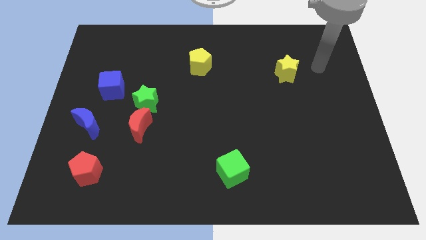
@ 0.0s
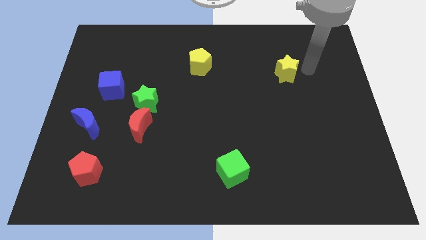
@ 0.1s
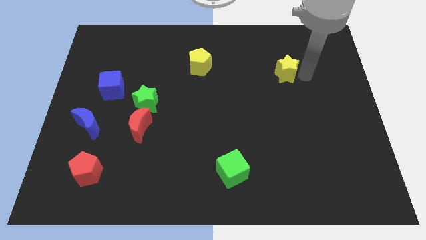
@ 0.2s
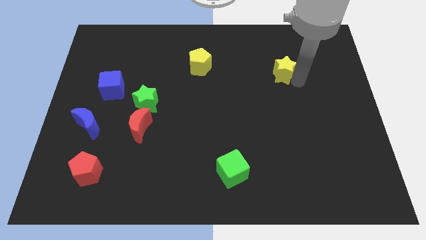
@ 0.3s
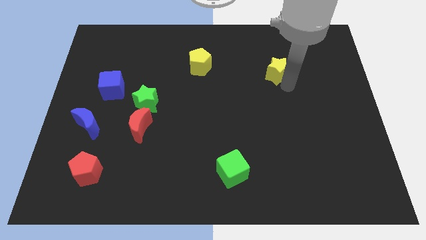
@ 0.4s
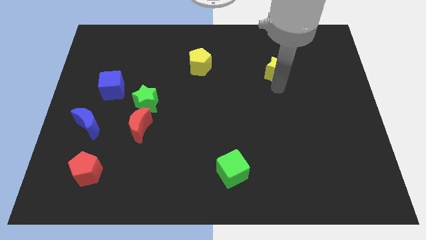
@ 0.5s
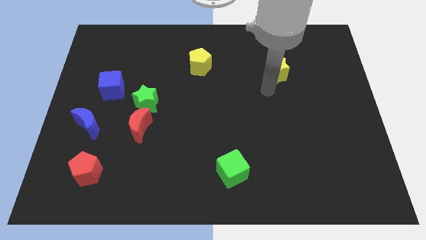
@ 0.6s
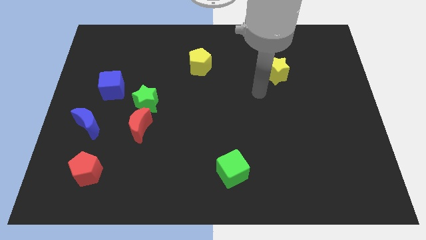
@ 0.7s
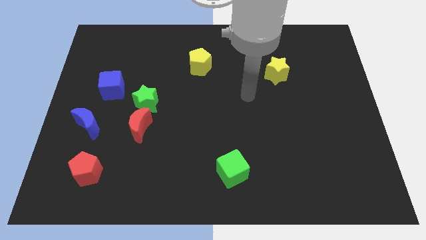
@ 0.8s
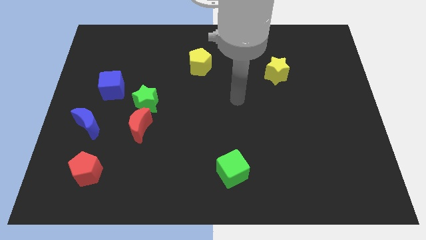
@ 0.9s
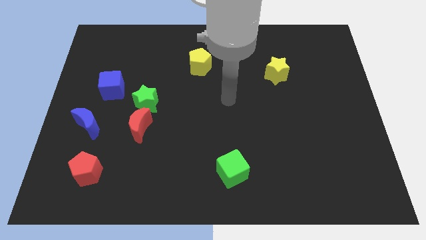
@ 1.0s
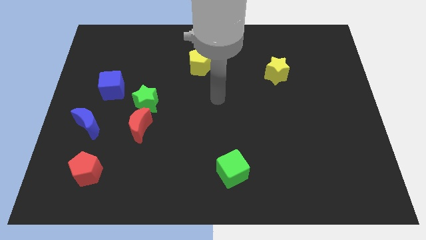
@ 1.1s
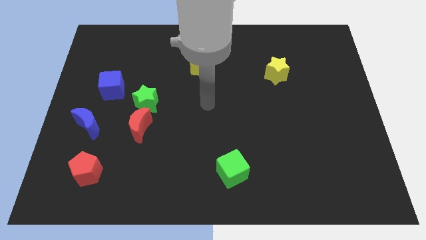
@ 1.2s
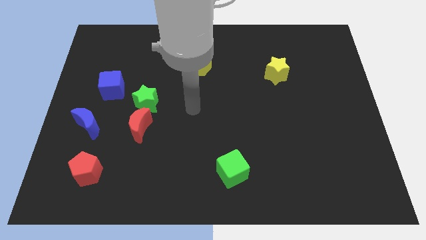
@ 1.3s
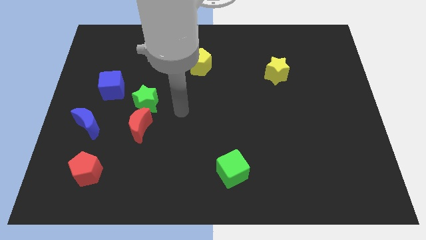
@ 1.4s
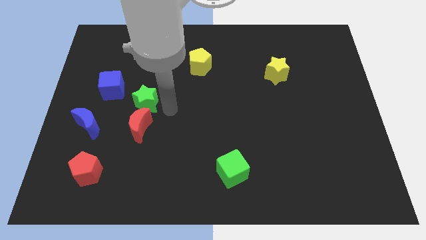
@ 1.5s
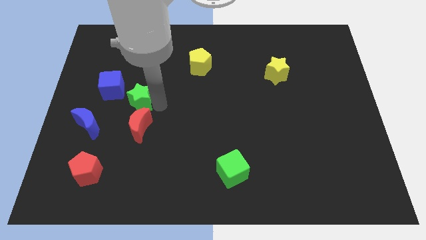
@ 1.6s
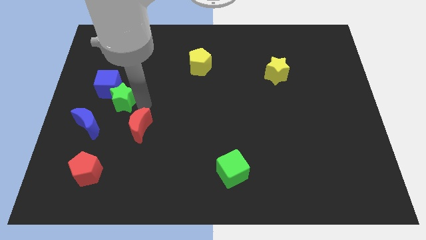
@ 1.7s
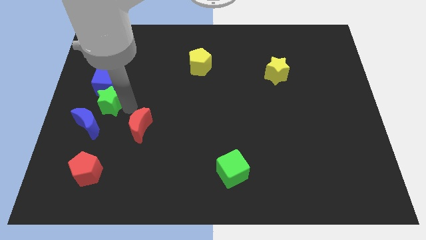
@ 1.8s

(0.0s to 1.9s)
move the red moon away from the green star

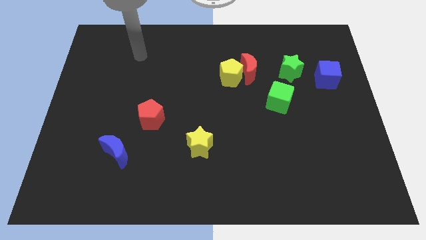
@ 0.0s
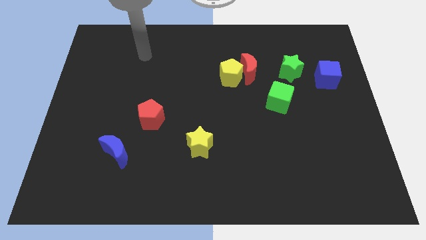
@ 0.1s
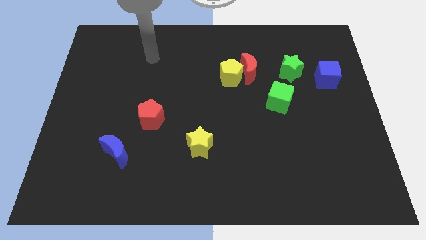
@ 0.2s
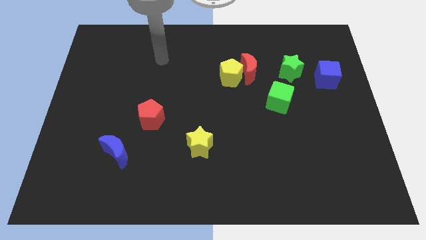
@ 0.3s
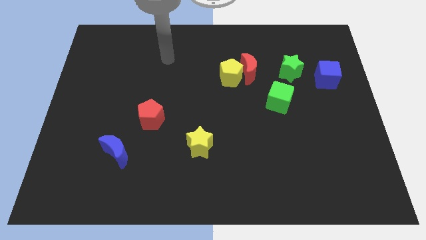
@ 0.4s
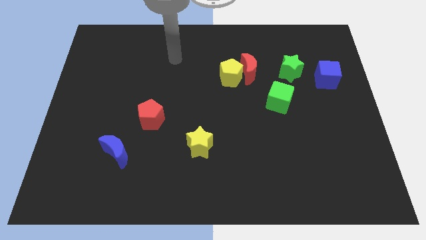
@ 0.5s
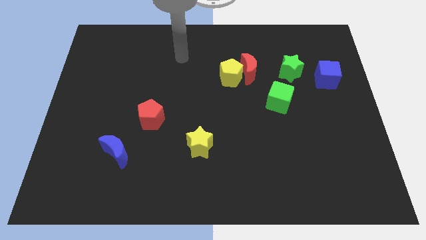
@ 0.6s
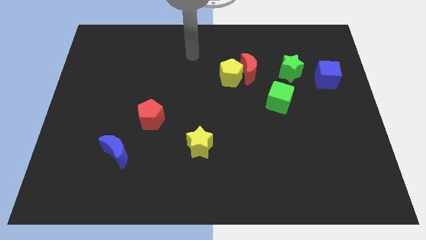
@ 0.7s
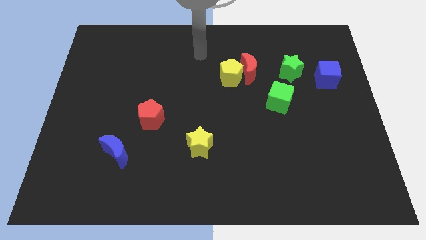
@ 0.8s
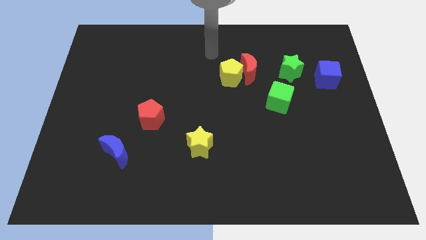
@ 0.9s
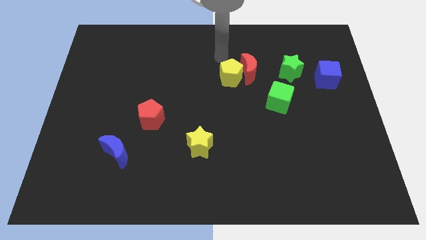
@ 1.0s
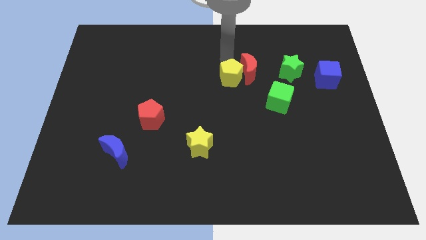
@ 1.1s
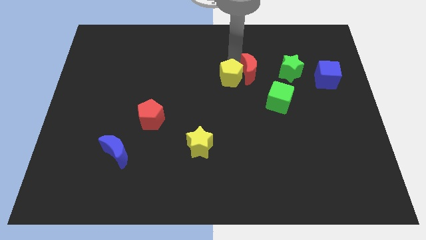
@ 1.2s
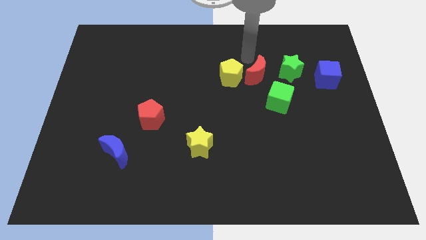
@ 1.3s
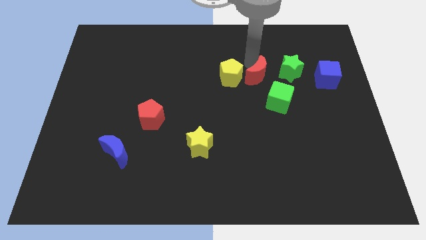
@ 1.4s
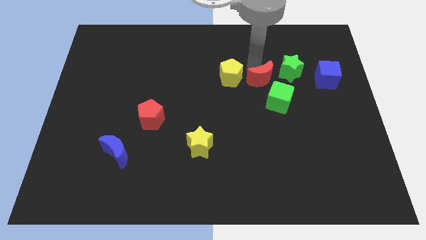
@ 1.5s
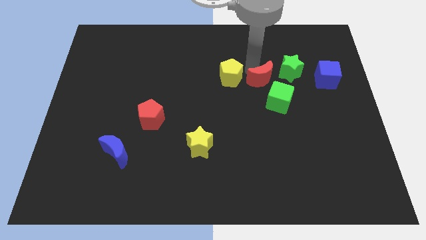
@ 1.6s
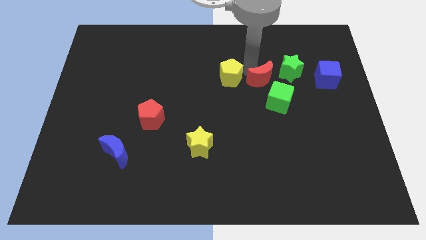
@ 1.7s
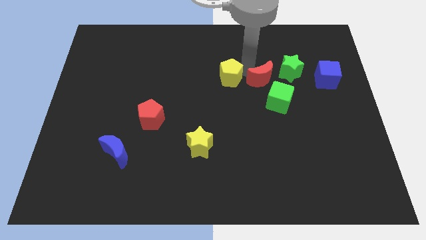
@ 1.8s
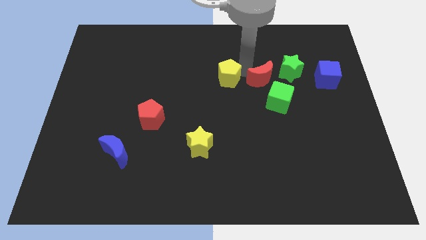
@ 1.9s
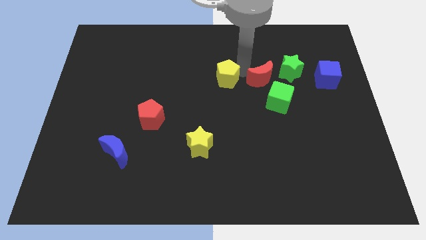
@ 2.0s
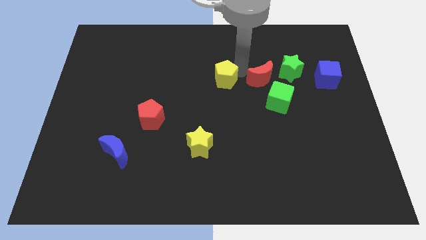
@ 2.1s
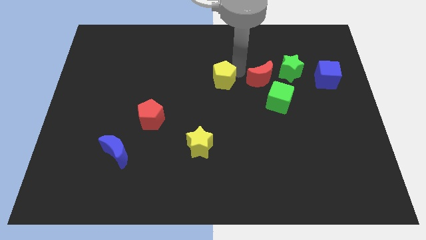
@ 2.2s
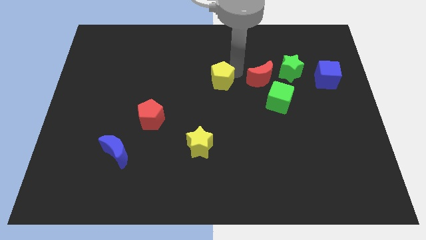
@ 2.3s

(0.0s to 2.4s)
separate the yellow pentagon from the red moon

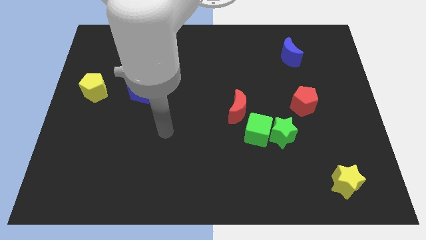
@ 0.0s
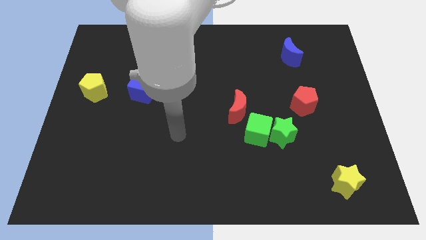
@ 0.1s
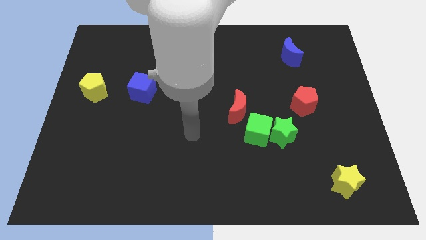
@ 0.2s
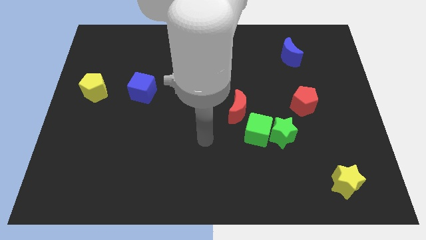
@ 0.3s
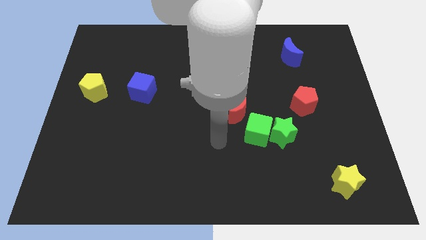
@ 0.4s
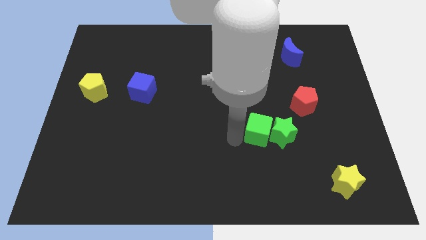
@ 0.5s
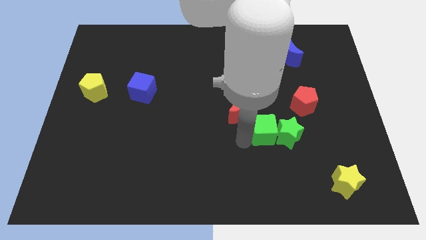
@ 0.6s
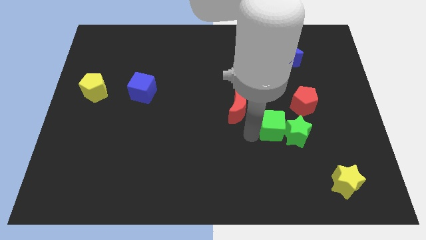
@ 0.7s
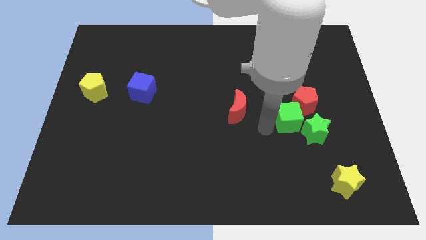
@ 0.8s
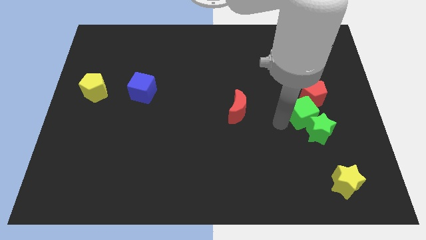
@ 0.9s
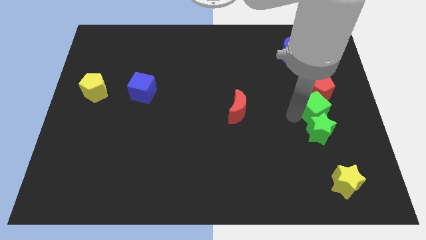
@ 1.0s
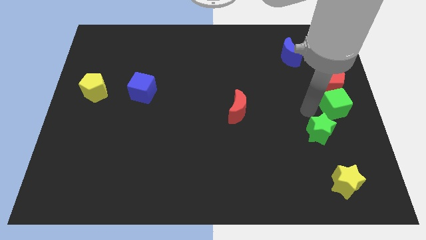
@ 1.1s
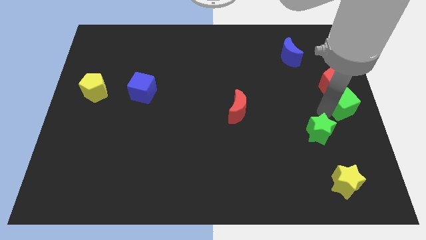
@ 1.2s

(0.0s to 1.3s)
move the green star away from the green cube

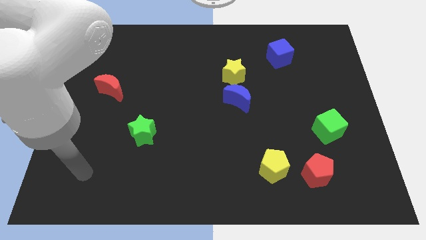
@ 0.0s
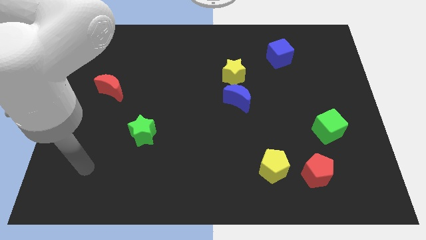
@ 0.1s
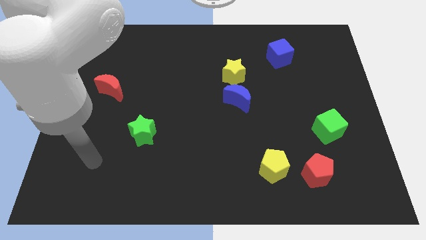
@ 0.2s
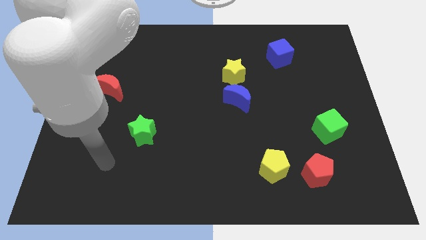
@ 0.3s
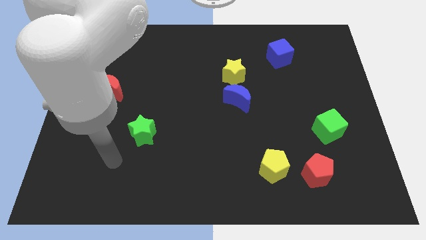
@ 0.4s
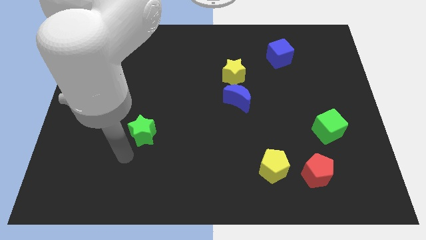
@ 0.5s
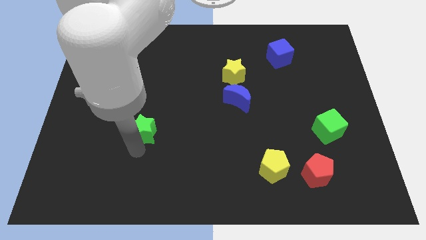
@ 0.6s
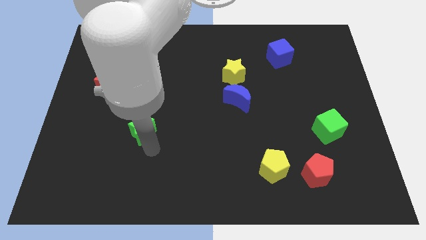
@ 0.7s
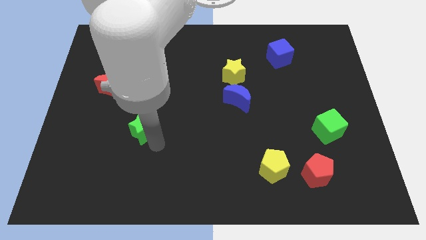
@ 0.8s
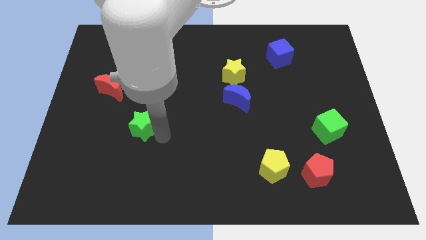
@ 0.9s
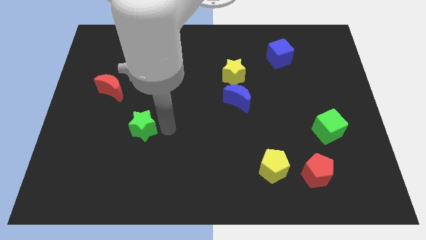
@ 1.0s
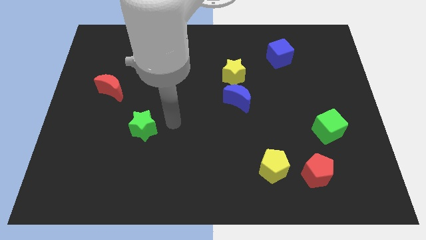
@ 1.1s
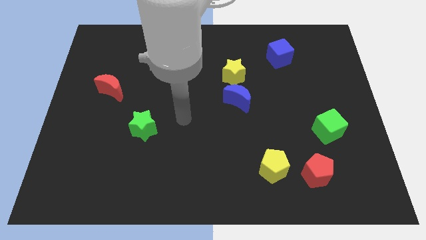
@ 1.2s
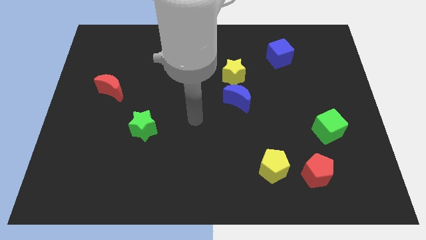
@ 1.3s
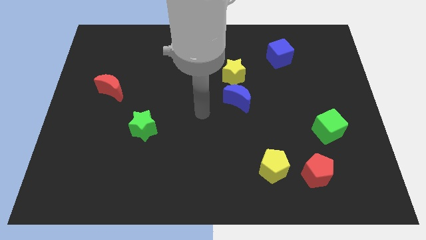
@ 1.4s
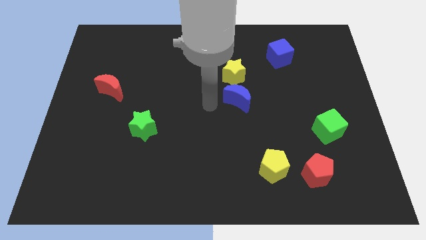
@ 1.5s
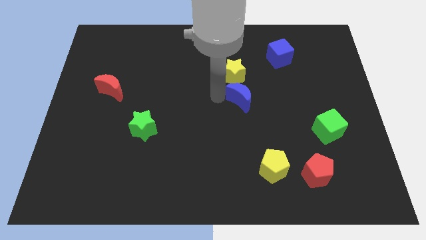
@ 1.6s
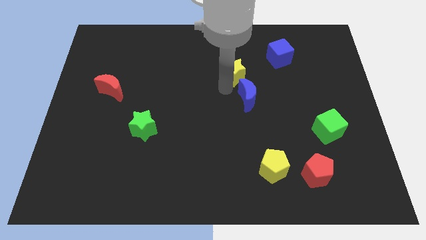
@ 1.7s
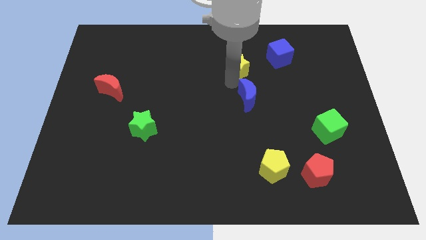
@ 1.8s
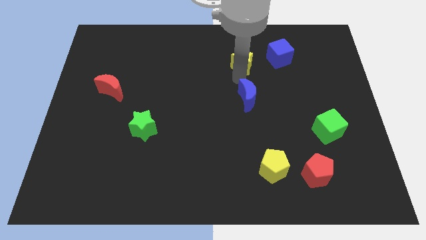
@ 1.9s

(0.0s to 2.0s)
separate the blue moon from the yellow star

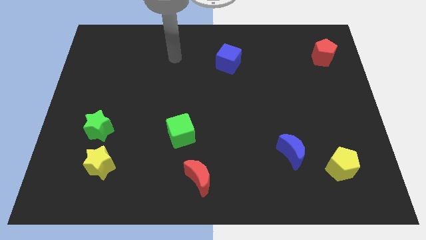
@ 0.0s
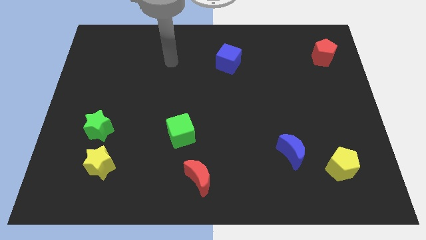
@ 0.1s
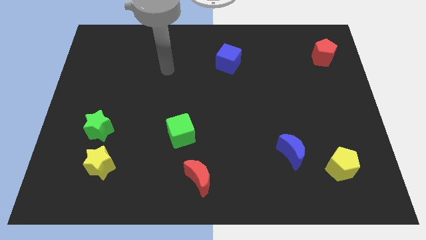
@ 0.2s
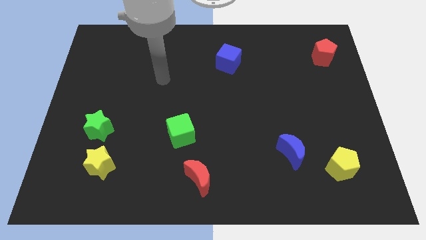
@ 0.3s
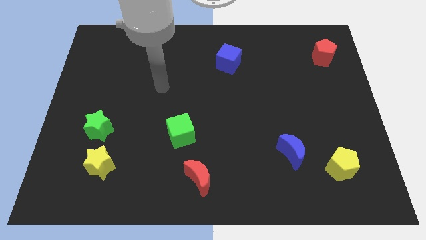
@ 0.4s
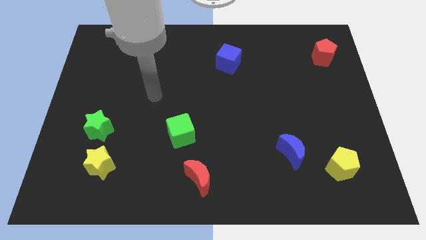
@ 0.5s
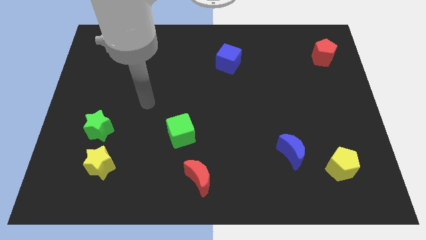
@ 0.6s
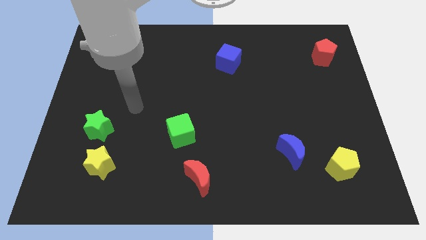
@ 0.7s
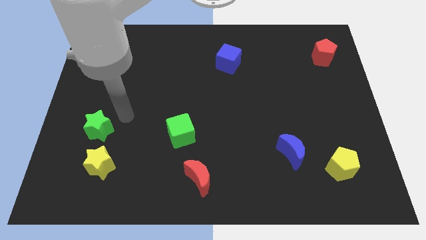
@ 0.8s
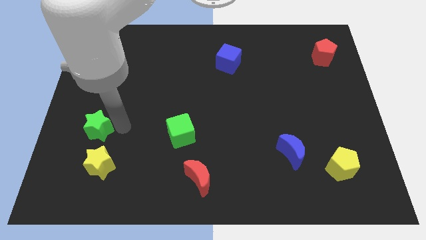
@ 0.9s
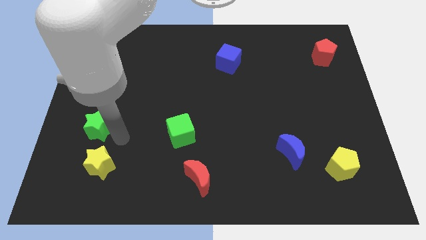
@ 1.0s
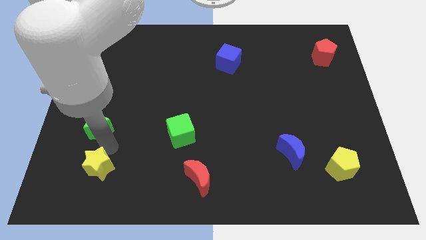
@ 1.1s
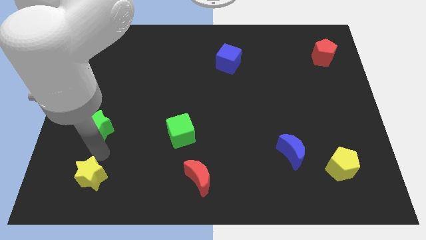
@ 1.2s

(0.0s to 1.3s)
pull the green star apart from the yellow star

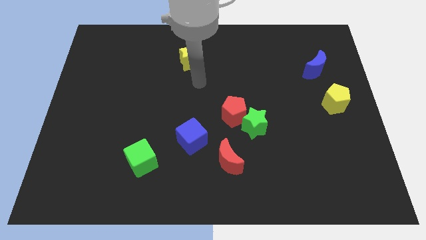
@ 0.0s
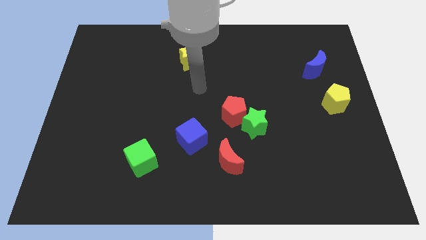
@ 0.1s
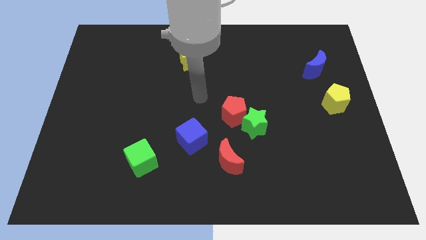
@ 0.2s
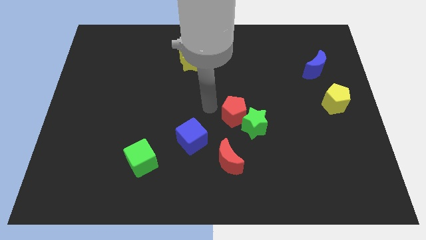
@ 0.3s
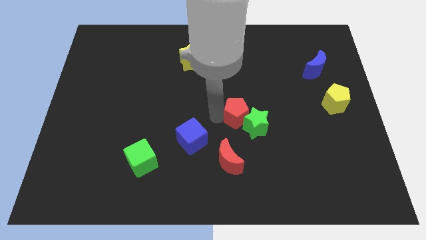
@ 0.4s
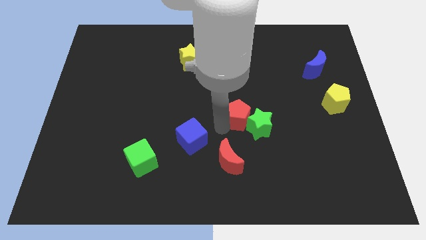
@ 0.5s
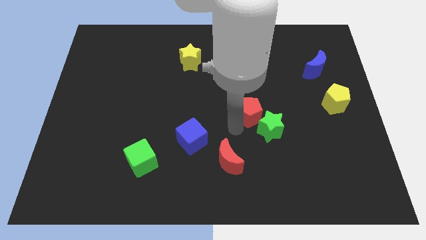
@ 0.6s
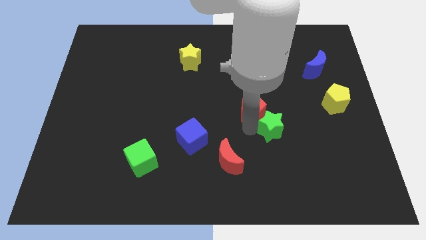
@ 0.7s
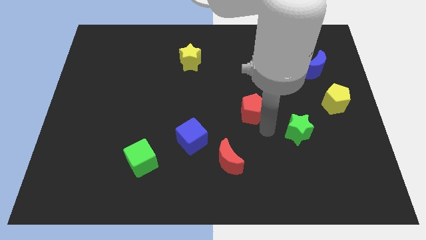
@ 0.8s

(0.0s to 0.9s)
separate the red pentagon from the green star
